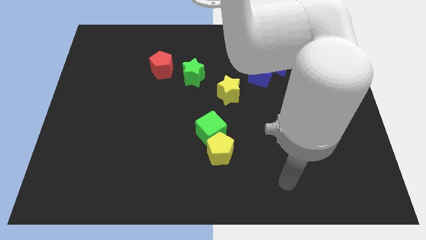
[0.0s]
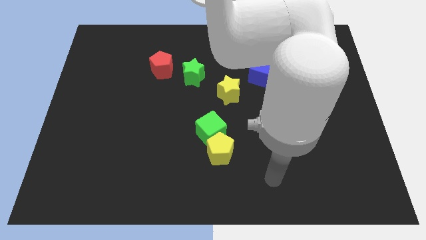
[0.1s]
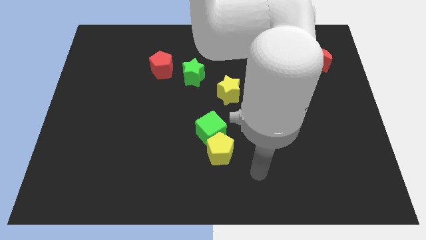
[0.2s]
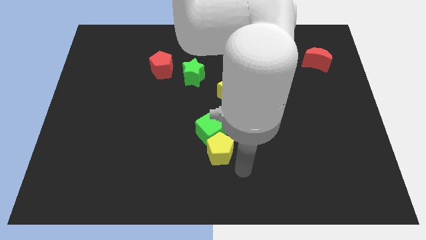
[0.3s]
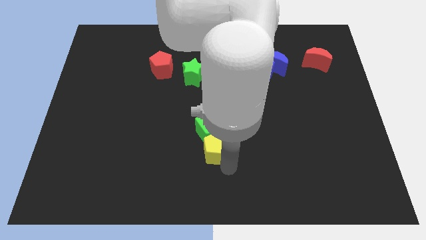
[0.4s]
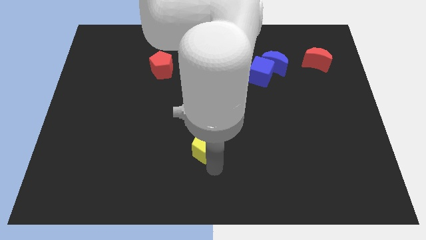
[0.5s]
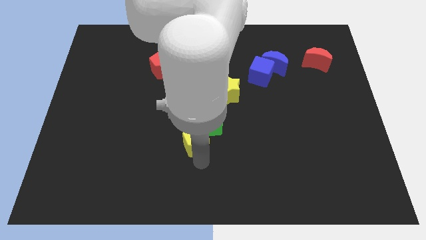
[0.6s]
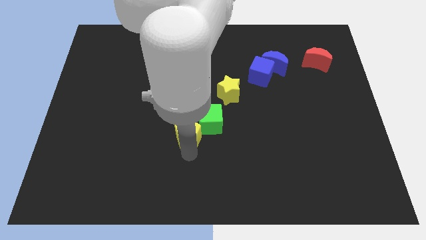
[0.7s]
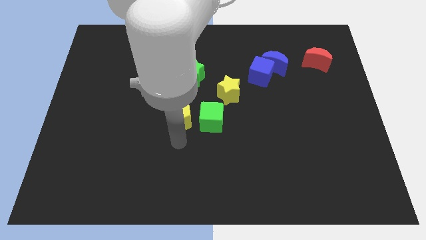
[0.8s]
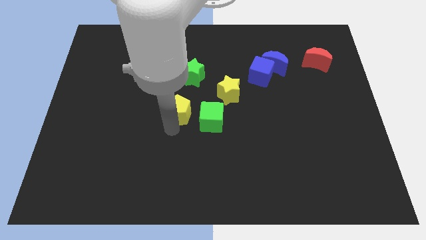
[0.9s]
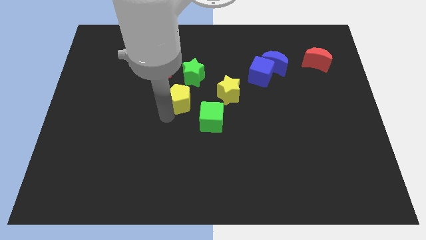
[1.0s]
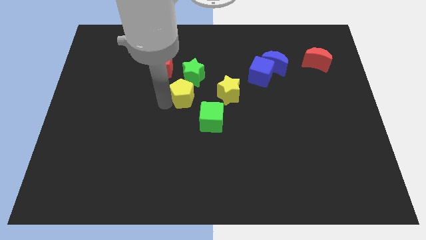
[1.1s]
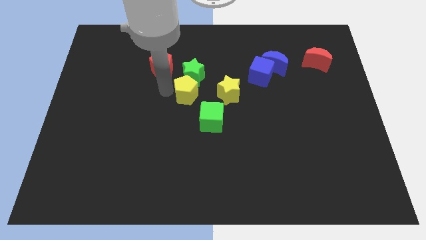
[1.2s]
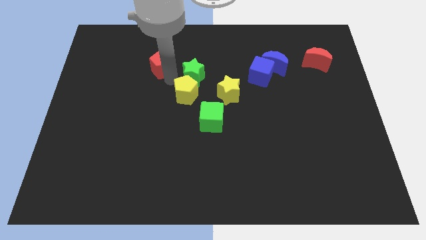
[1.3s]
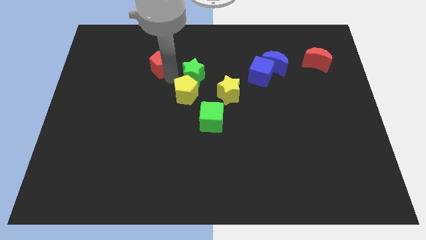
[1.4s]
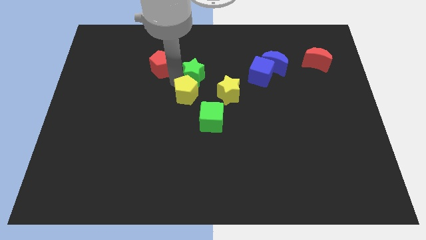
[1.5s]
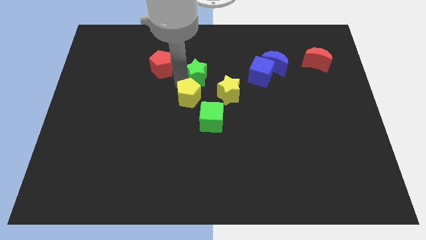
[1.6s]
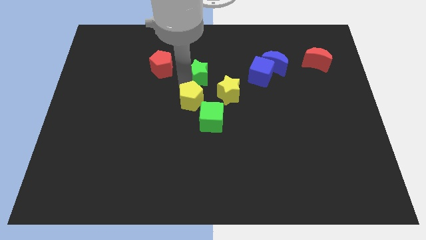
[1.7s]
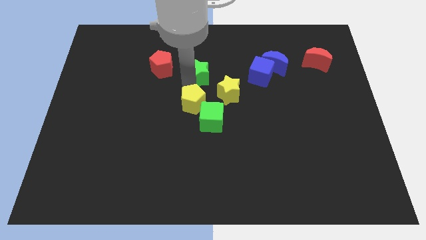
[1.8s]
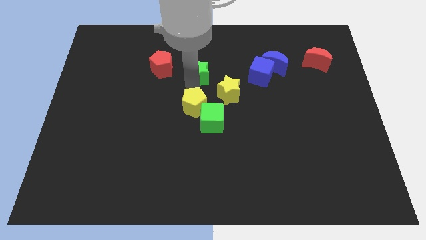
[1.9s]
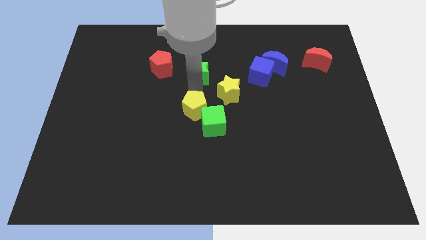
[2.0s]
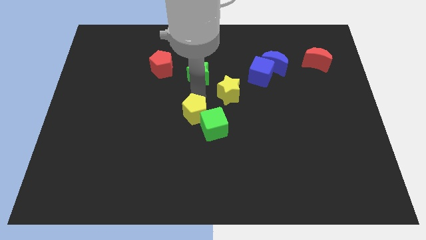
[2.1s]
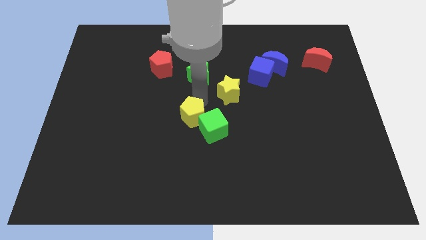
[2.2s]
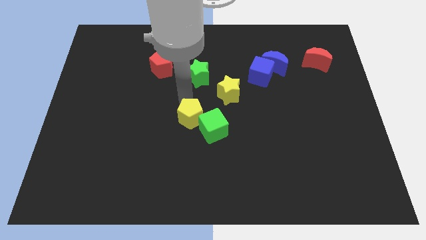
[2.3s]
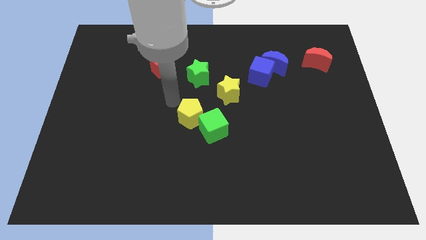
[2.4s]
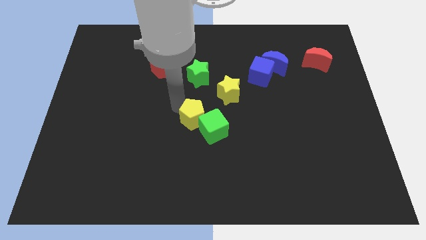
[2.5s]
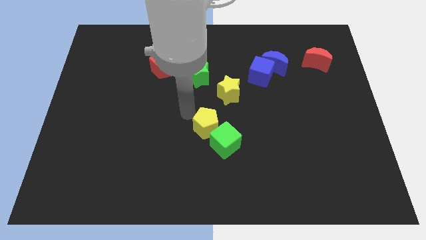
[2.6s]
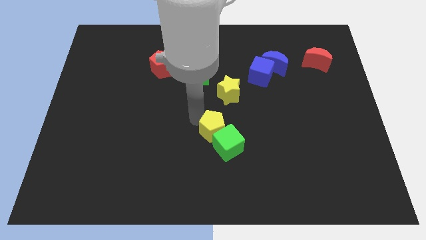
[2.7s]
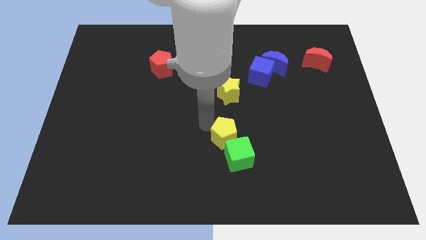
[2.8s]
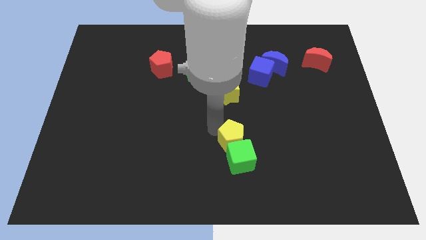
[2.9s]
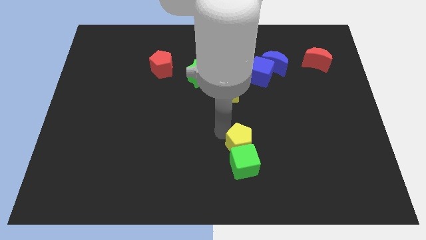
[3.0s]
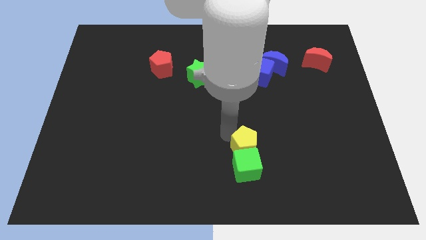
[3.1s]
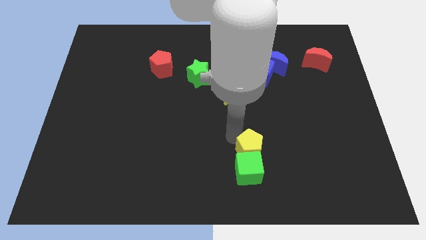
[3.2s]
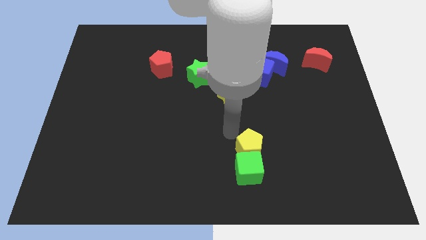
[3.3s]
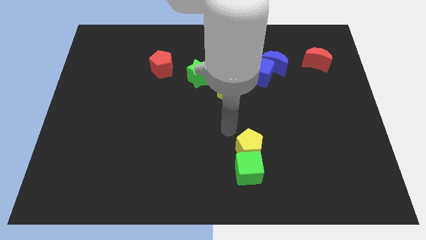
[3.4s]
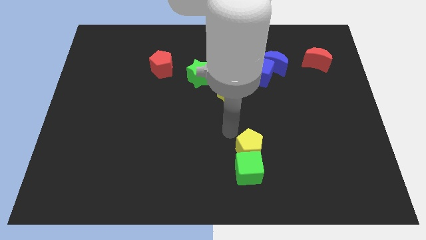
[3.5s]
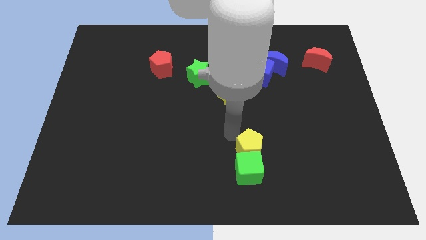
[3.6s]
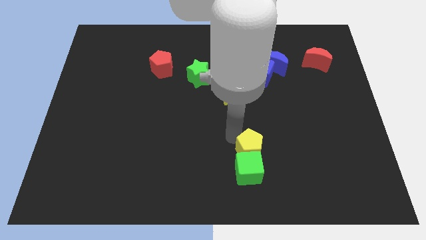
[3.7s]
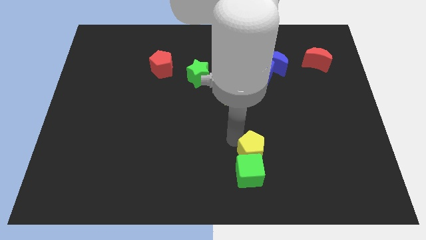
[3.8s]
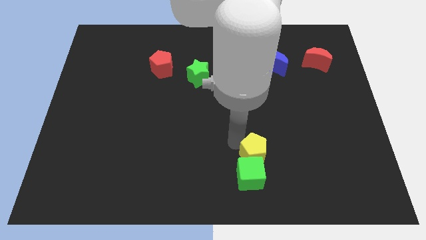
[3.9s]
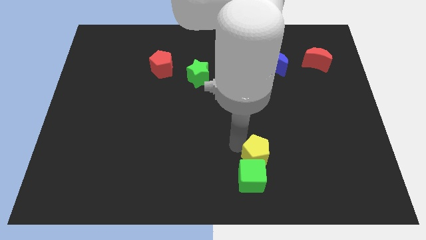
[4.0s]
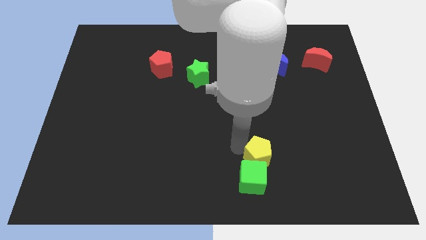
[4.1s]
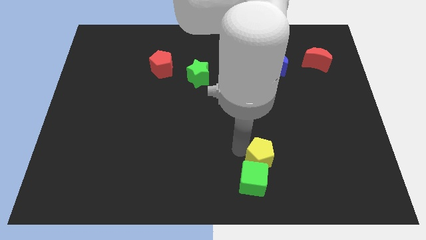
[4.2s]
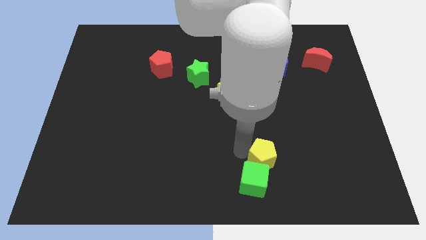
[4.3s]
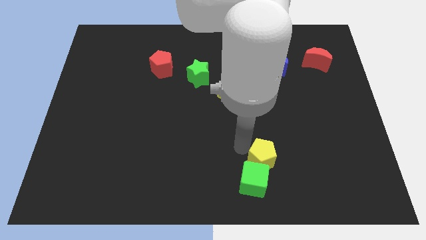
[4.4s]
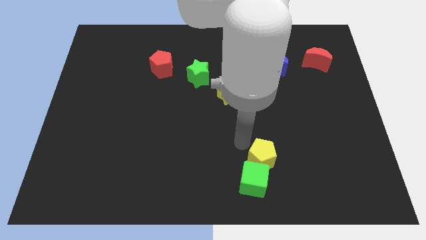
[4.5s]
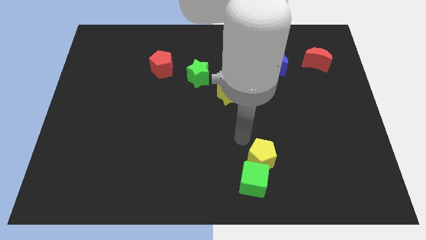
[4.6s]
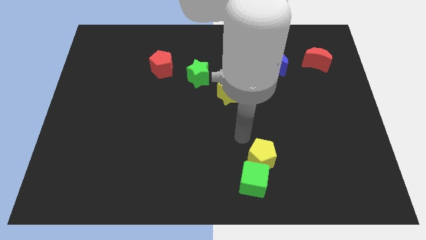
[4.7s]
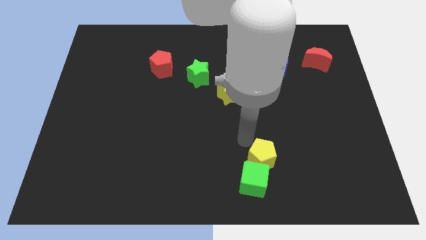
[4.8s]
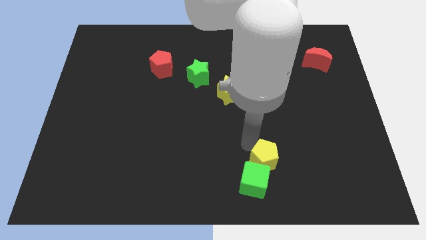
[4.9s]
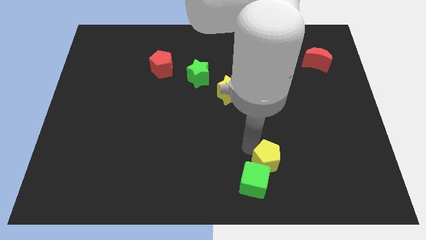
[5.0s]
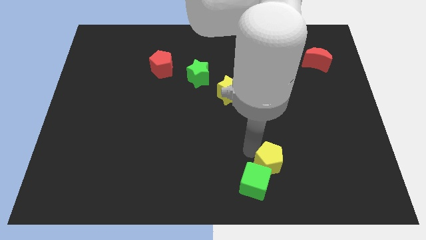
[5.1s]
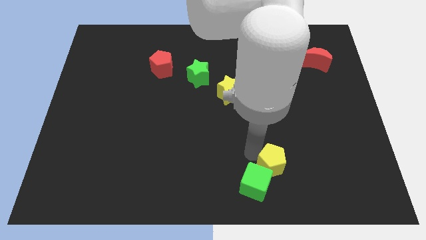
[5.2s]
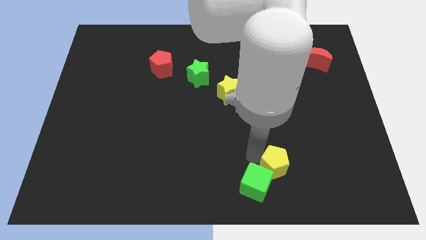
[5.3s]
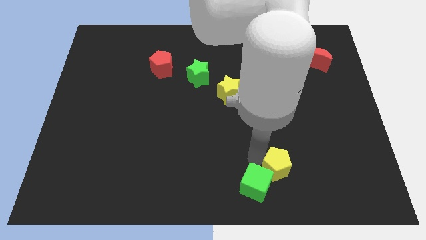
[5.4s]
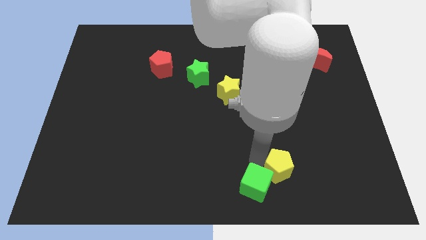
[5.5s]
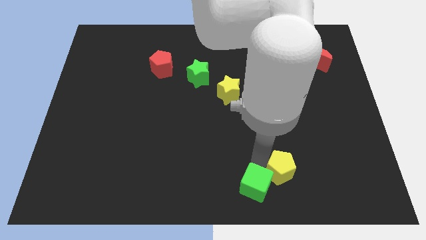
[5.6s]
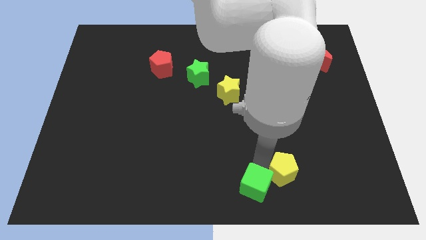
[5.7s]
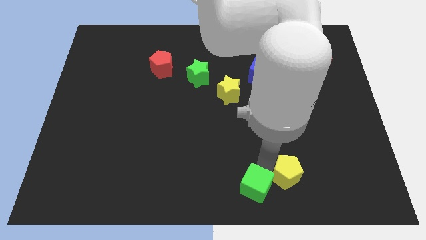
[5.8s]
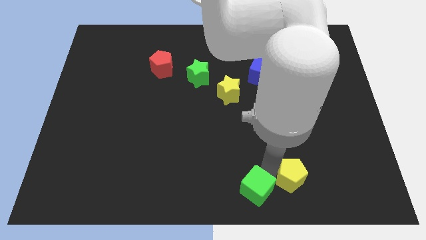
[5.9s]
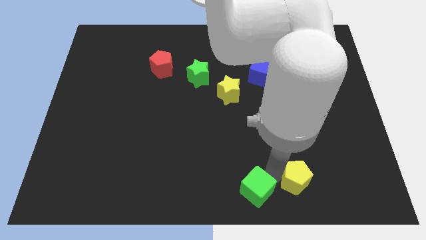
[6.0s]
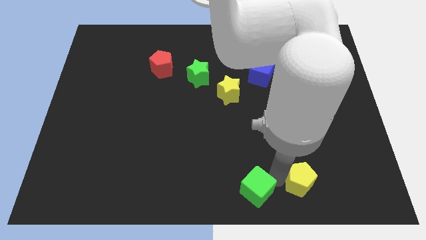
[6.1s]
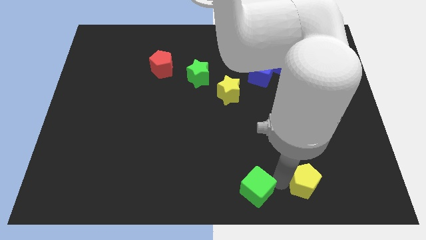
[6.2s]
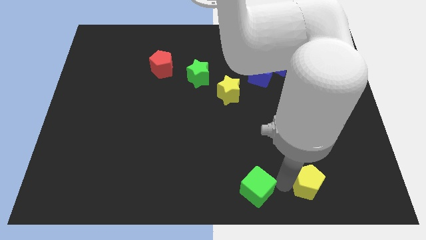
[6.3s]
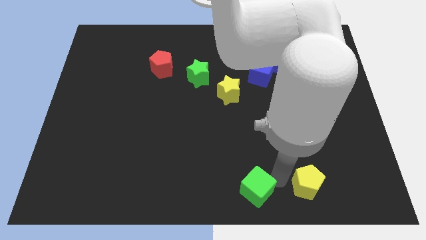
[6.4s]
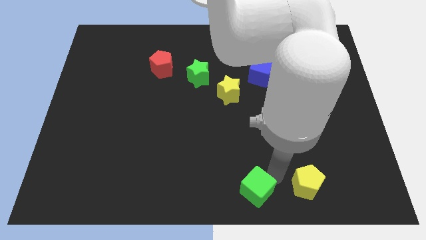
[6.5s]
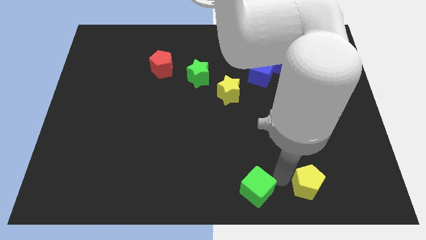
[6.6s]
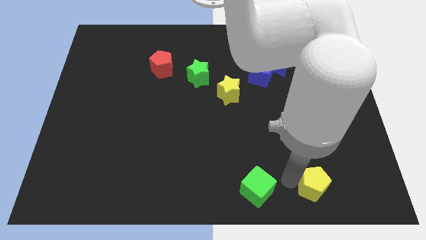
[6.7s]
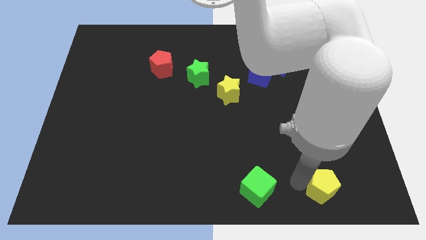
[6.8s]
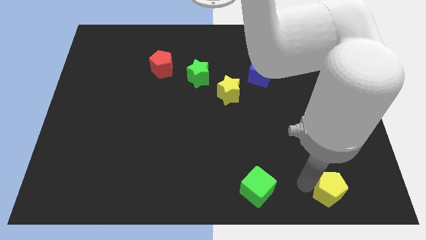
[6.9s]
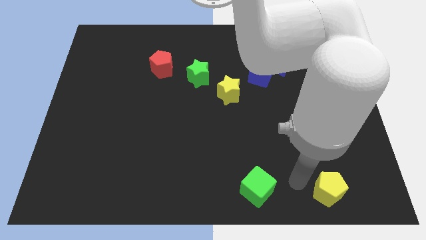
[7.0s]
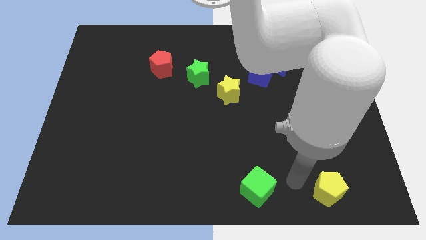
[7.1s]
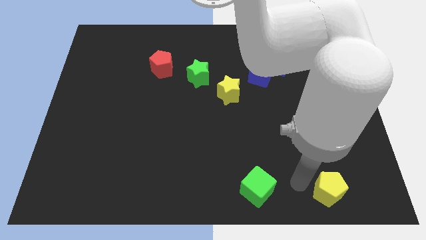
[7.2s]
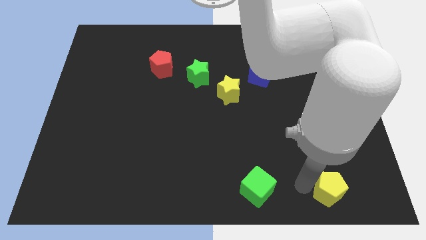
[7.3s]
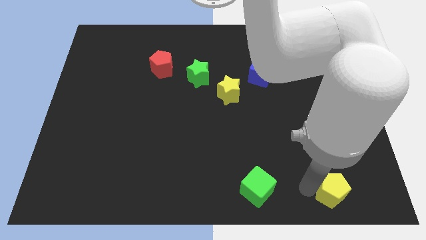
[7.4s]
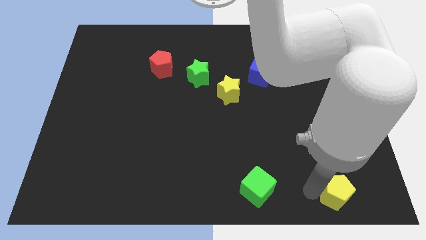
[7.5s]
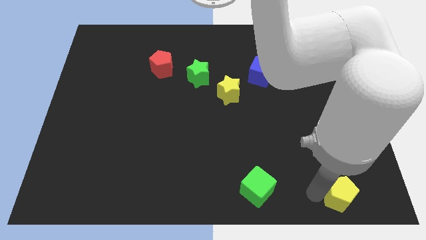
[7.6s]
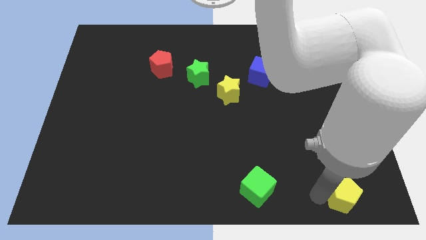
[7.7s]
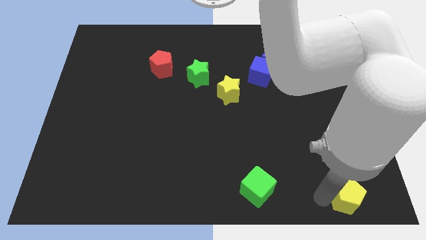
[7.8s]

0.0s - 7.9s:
move the yellow pentagon to the bottom right corner
